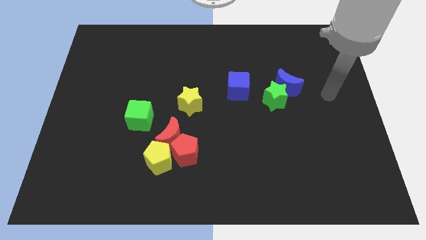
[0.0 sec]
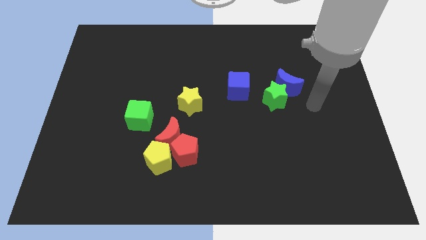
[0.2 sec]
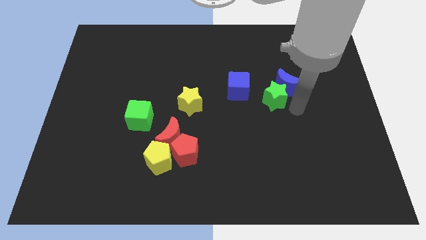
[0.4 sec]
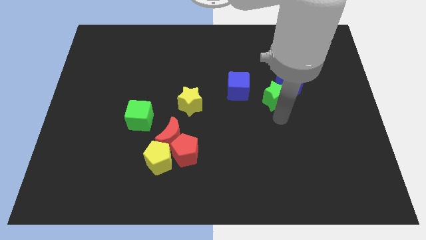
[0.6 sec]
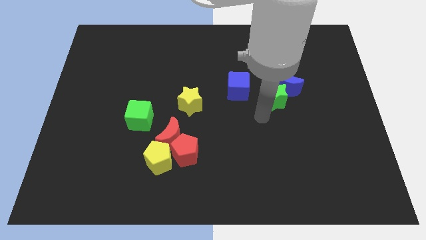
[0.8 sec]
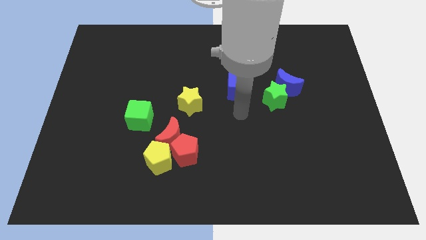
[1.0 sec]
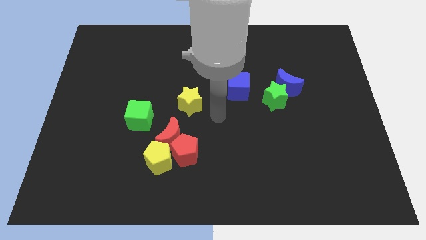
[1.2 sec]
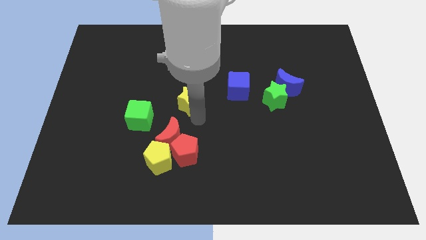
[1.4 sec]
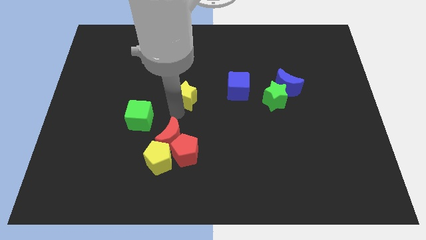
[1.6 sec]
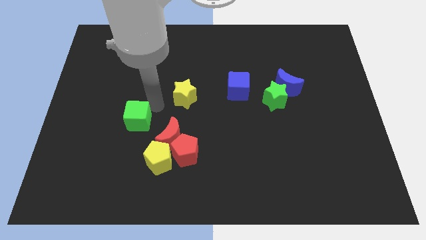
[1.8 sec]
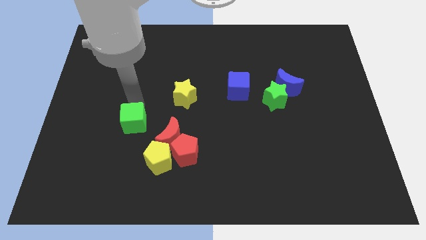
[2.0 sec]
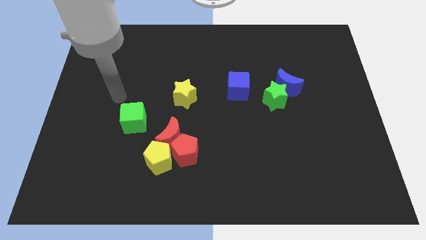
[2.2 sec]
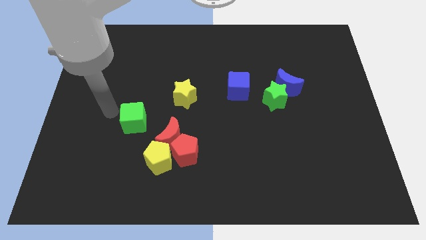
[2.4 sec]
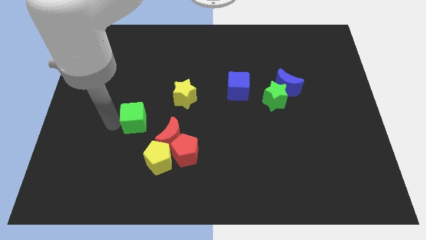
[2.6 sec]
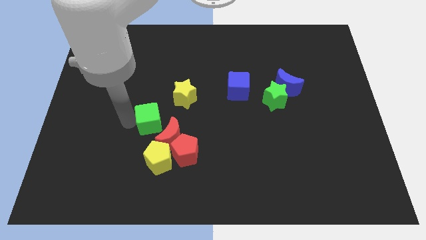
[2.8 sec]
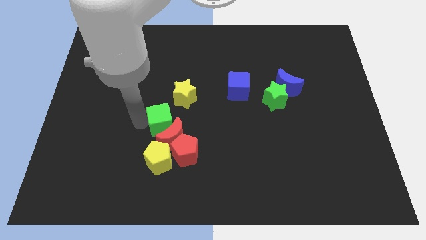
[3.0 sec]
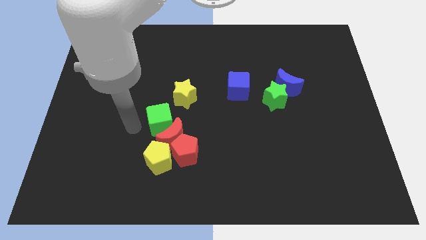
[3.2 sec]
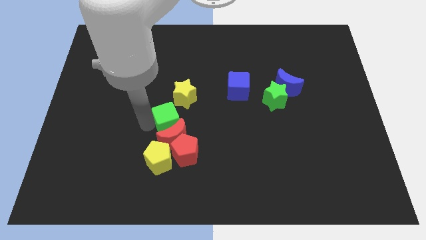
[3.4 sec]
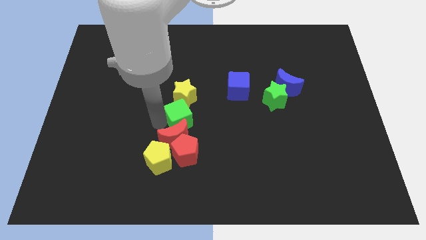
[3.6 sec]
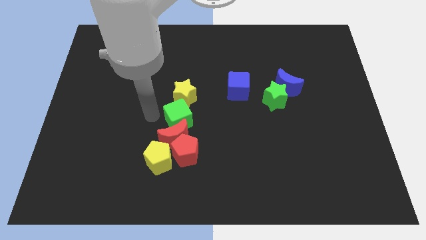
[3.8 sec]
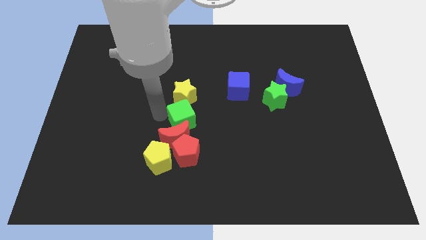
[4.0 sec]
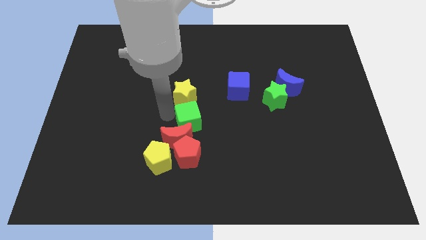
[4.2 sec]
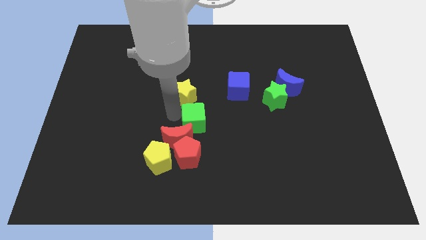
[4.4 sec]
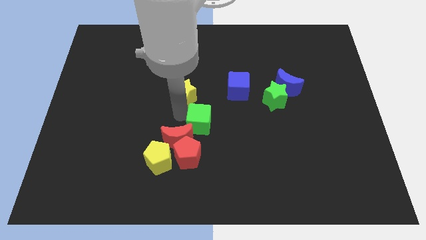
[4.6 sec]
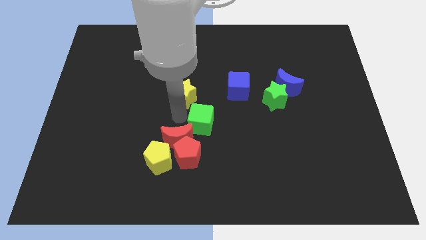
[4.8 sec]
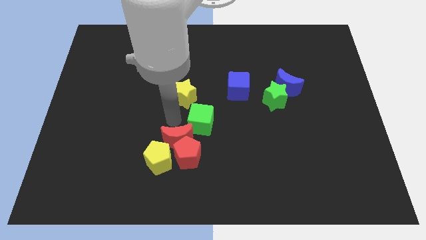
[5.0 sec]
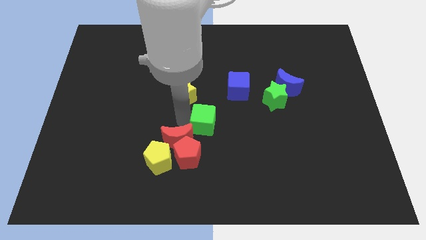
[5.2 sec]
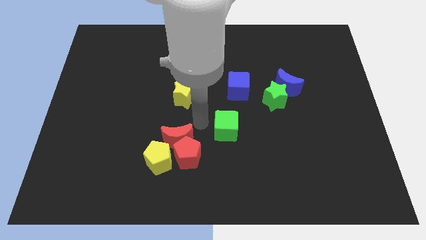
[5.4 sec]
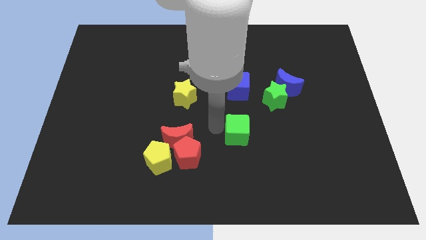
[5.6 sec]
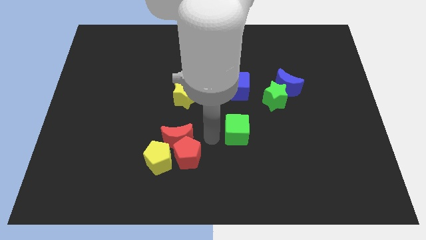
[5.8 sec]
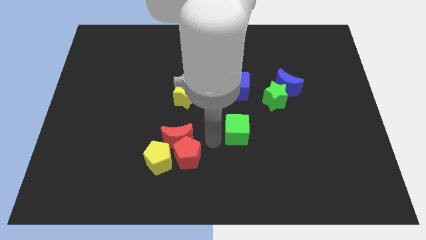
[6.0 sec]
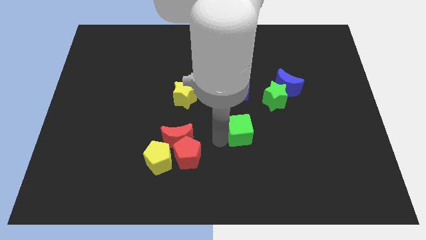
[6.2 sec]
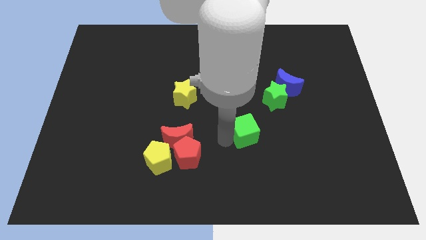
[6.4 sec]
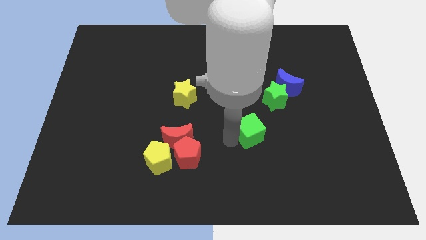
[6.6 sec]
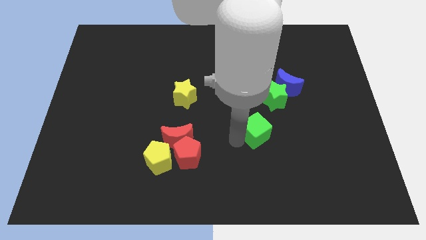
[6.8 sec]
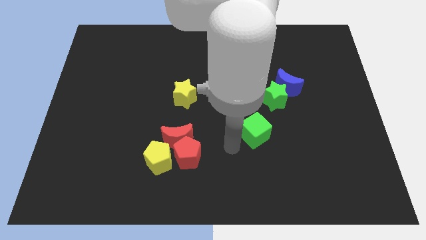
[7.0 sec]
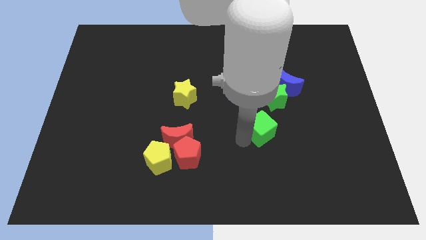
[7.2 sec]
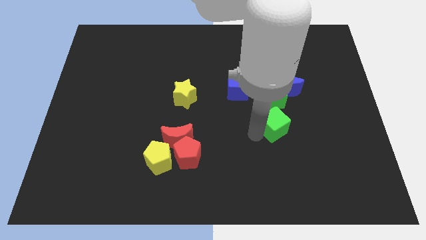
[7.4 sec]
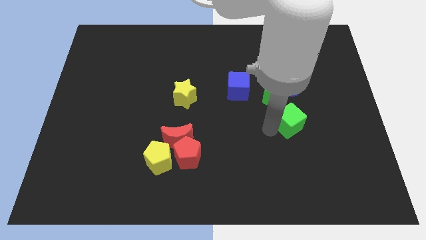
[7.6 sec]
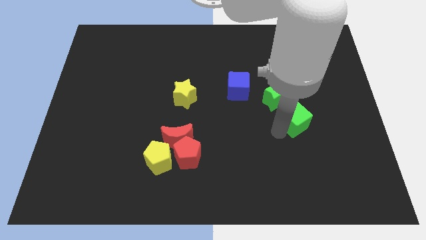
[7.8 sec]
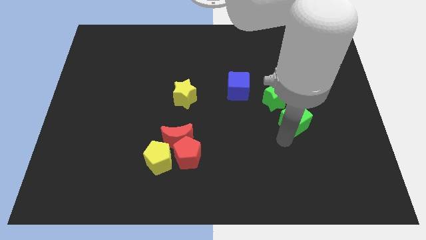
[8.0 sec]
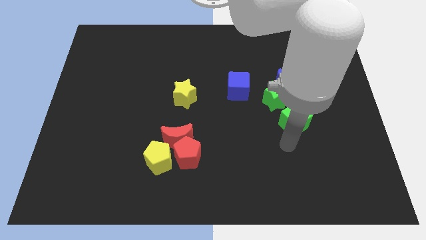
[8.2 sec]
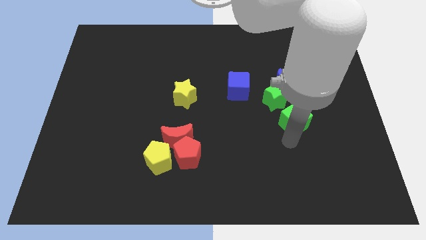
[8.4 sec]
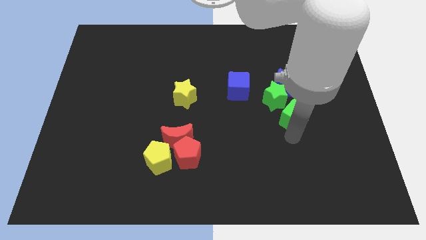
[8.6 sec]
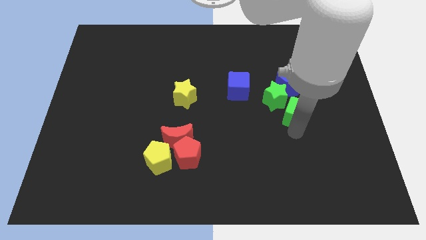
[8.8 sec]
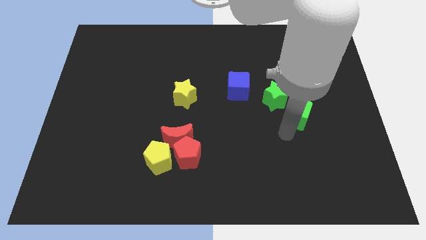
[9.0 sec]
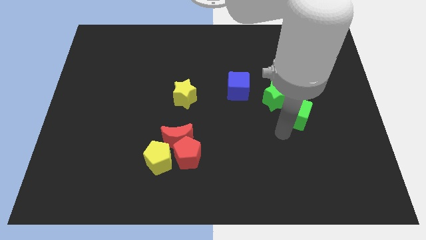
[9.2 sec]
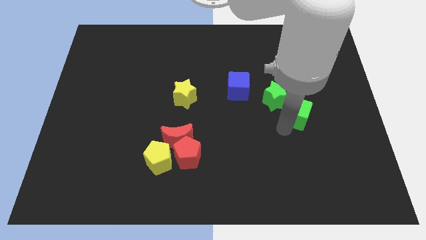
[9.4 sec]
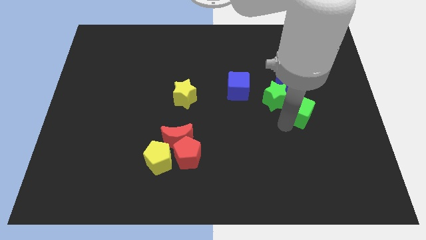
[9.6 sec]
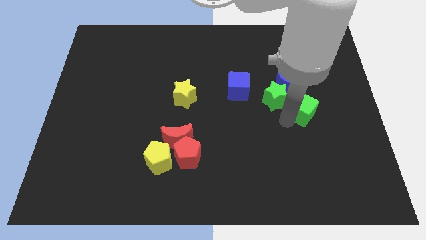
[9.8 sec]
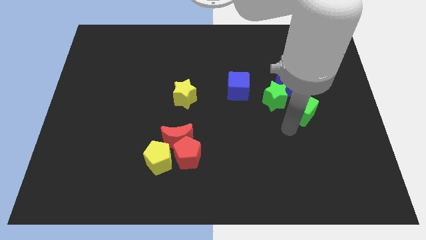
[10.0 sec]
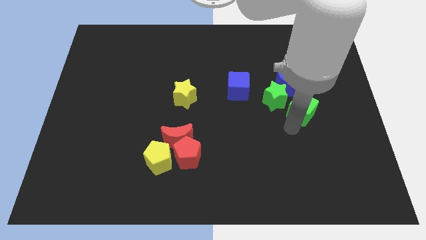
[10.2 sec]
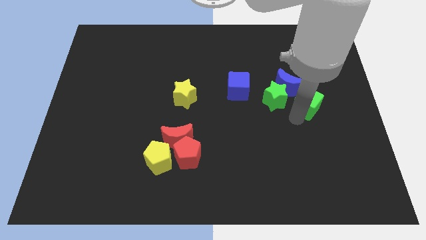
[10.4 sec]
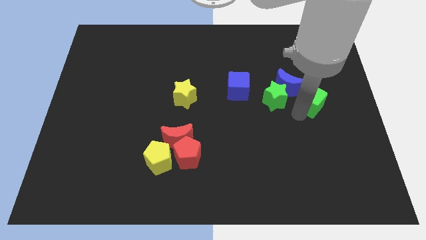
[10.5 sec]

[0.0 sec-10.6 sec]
push the green cube just right of the blue moon

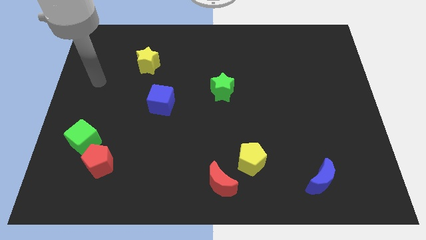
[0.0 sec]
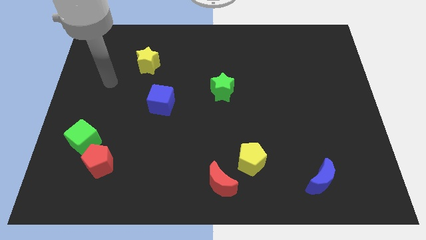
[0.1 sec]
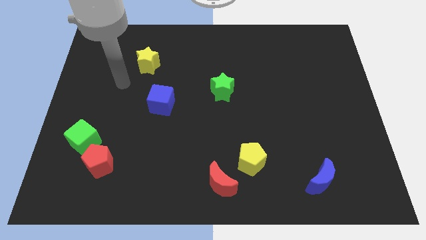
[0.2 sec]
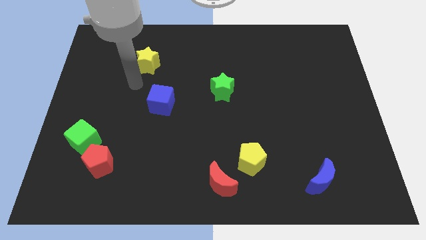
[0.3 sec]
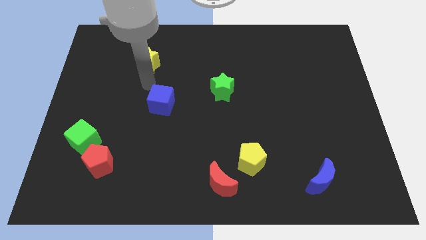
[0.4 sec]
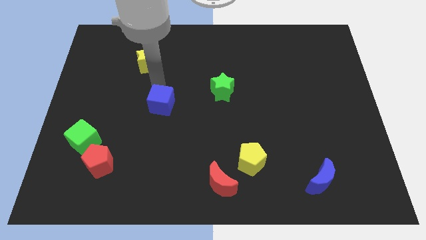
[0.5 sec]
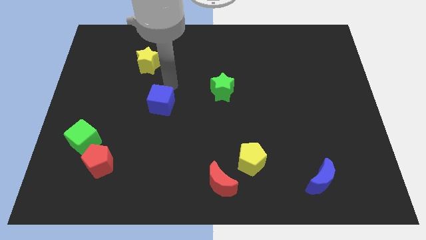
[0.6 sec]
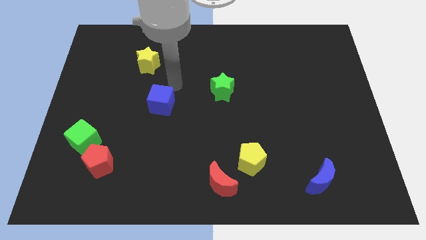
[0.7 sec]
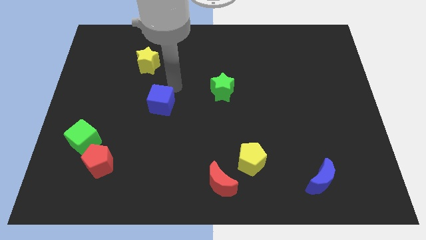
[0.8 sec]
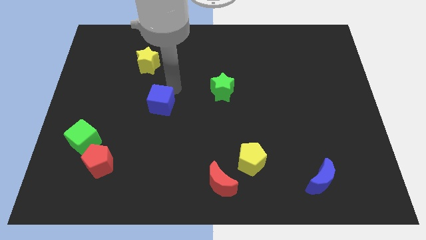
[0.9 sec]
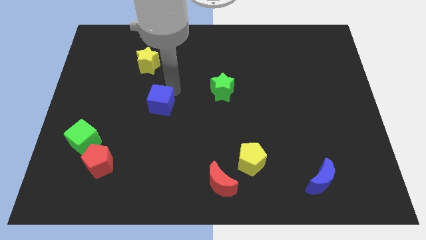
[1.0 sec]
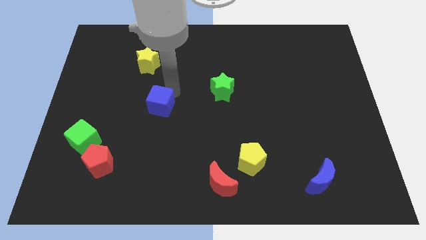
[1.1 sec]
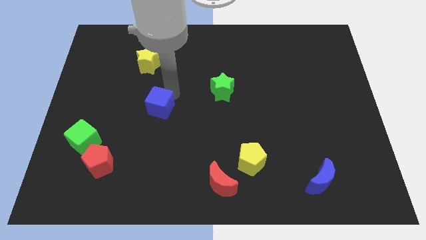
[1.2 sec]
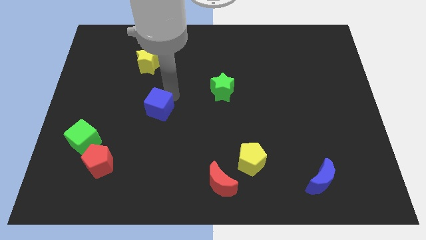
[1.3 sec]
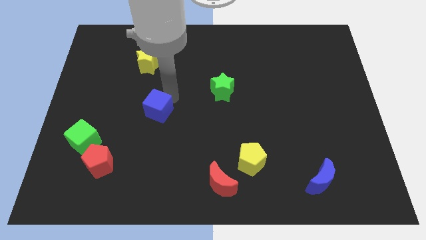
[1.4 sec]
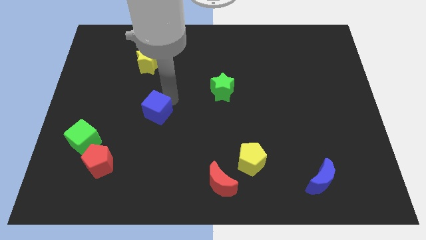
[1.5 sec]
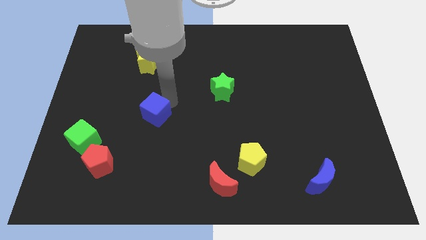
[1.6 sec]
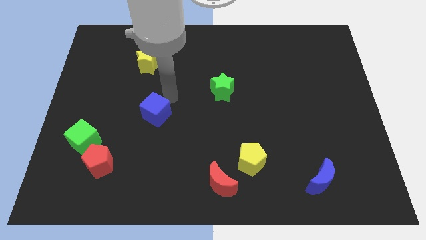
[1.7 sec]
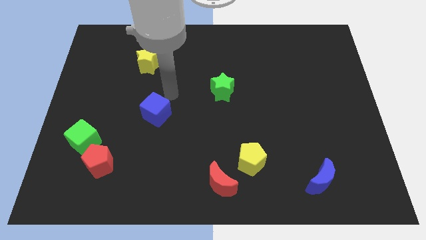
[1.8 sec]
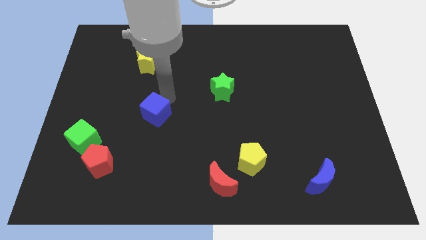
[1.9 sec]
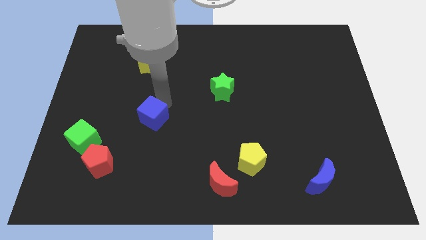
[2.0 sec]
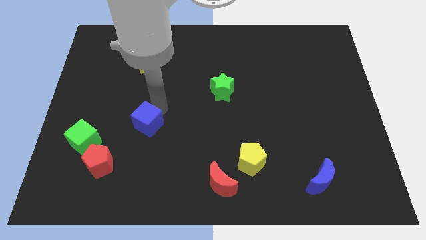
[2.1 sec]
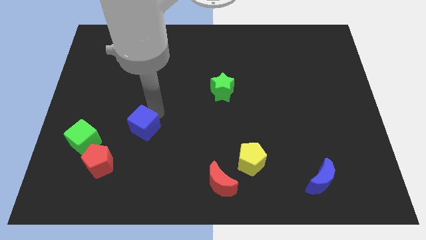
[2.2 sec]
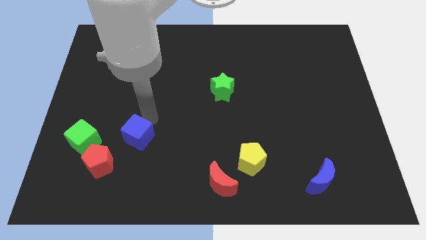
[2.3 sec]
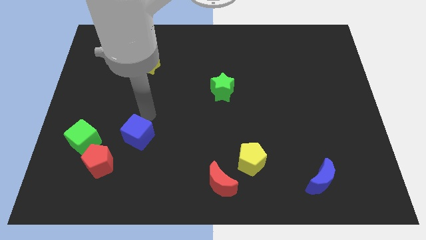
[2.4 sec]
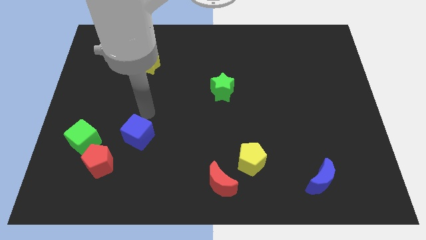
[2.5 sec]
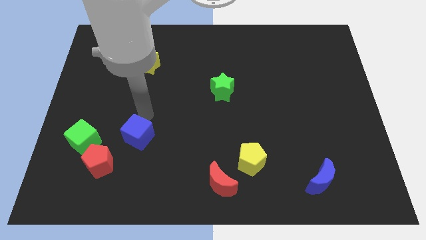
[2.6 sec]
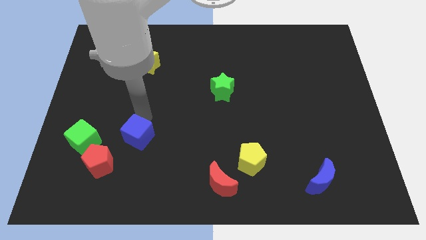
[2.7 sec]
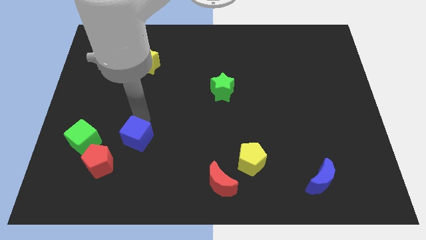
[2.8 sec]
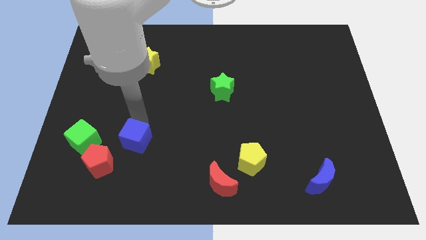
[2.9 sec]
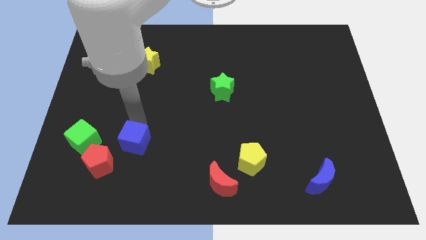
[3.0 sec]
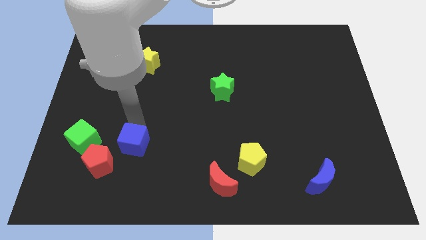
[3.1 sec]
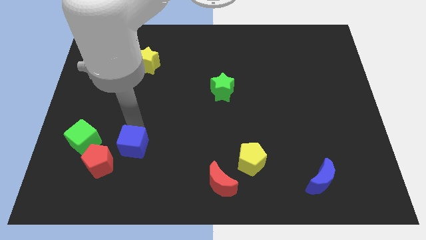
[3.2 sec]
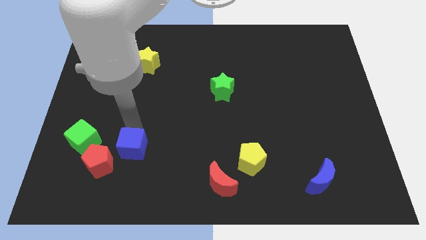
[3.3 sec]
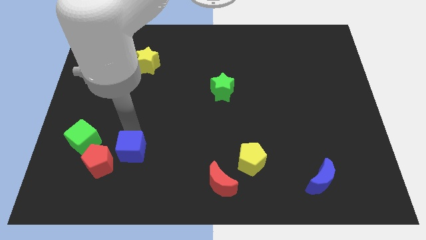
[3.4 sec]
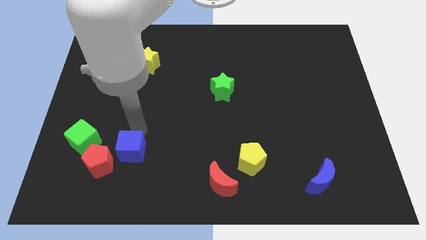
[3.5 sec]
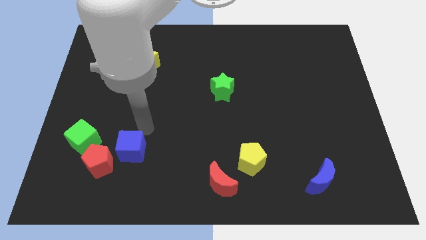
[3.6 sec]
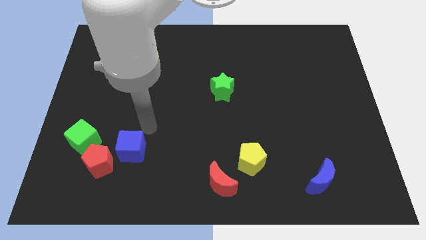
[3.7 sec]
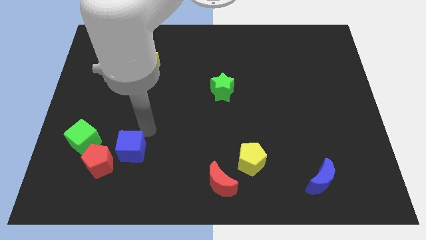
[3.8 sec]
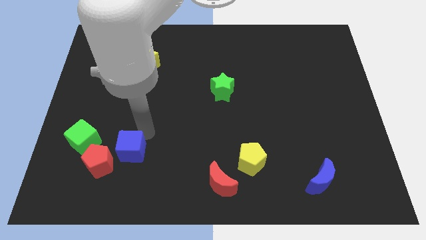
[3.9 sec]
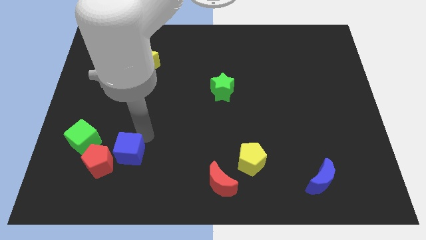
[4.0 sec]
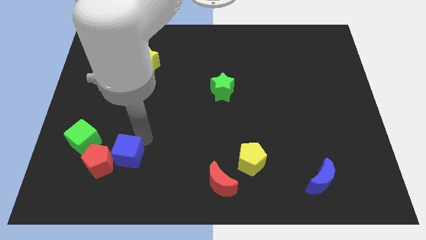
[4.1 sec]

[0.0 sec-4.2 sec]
push the blue cube to the bottom right side of the green cube
